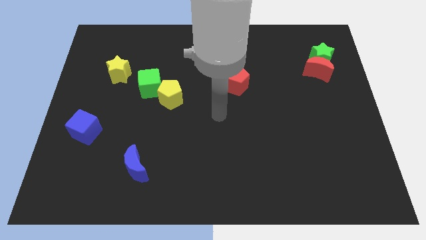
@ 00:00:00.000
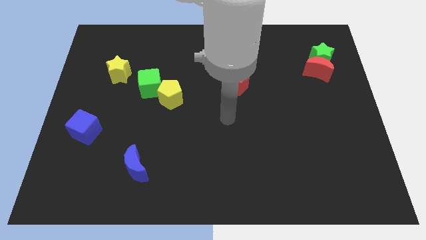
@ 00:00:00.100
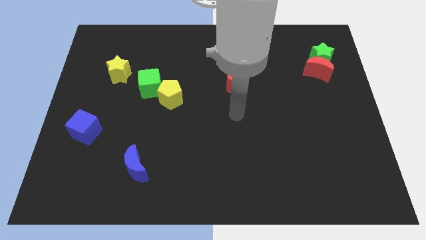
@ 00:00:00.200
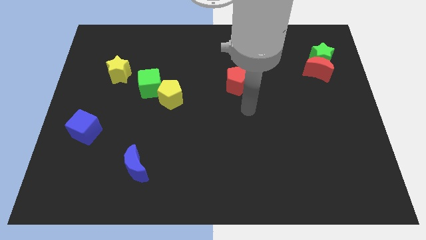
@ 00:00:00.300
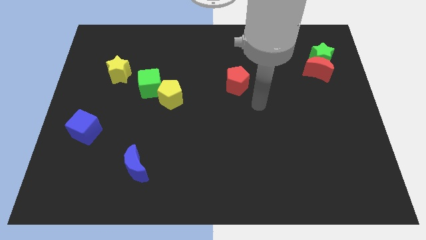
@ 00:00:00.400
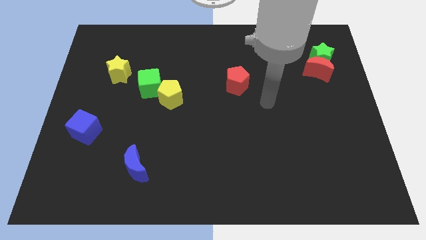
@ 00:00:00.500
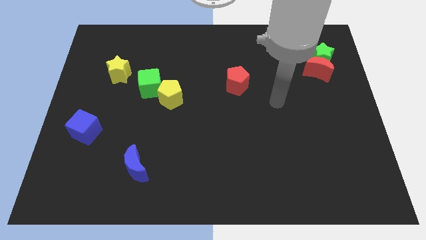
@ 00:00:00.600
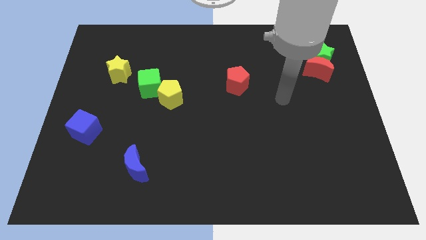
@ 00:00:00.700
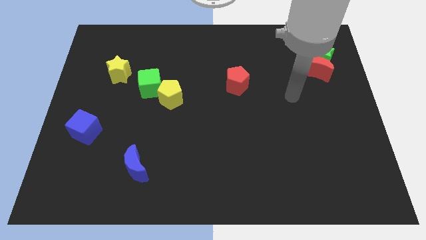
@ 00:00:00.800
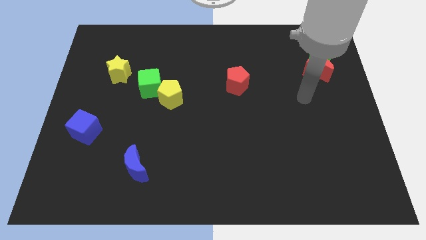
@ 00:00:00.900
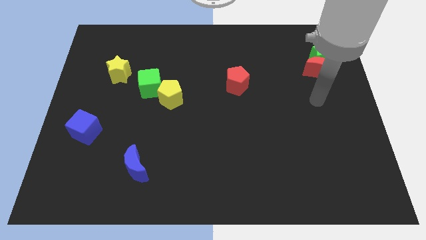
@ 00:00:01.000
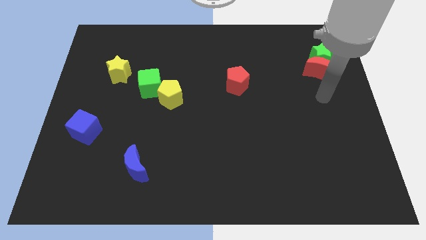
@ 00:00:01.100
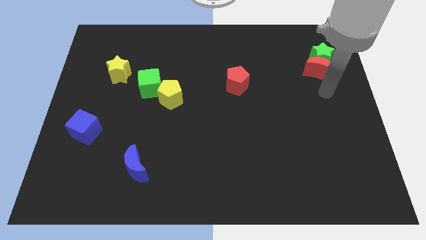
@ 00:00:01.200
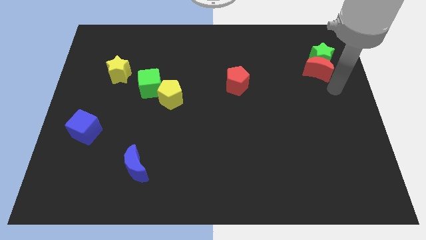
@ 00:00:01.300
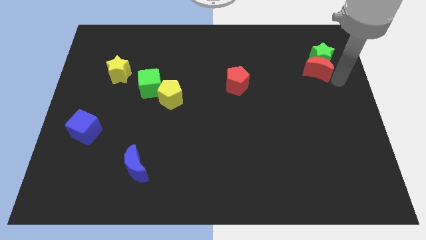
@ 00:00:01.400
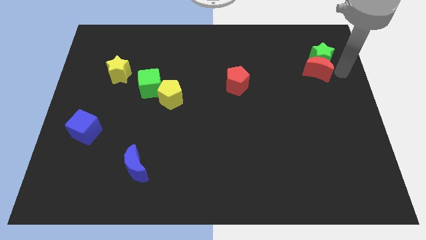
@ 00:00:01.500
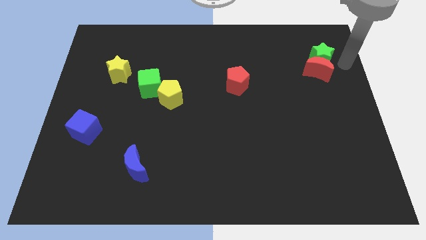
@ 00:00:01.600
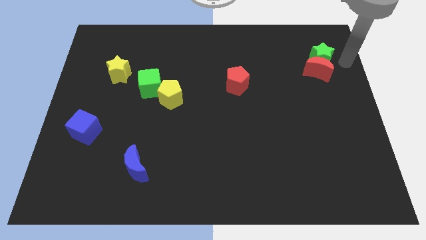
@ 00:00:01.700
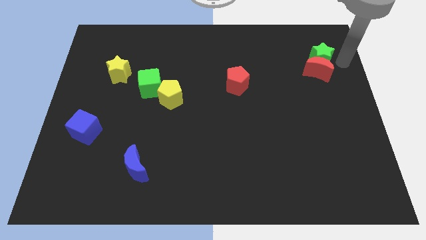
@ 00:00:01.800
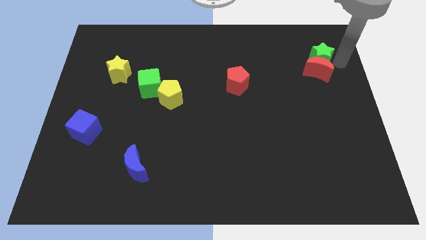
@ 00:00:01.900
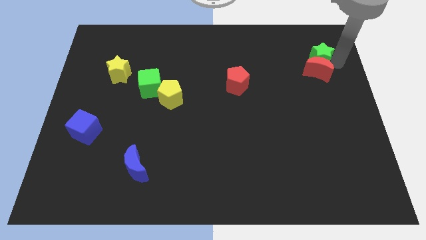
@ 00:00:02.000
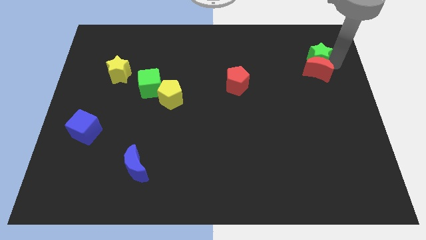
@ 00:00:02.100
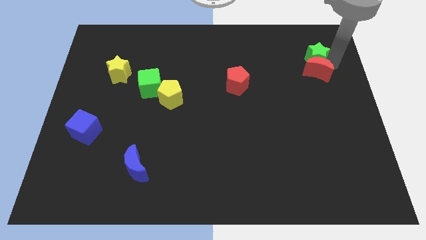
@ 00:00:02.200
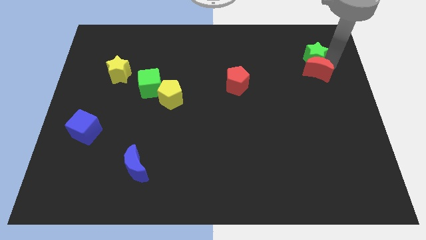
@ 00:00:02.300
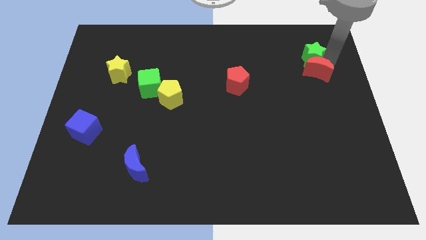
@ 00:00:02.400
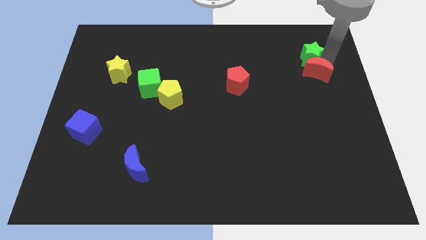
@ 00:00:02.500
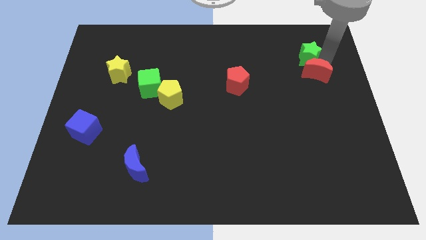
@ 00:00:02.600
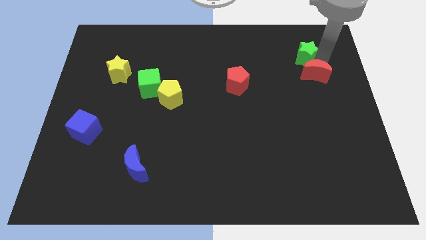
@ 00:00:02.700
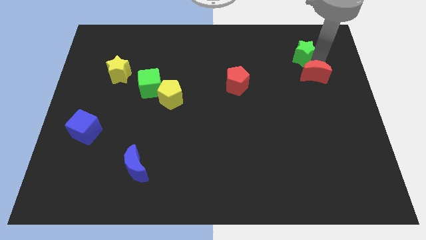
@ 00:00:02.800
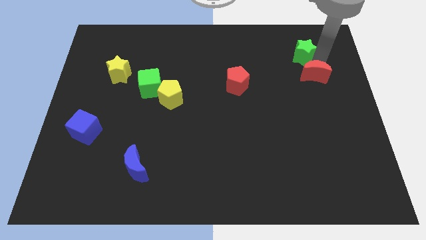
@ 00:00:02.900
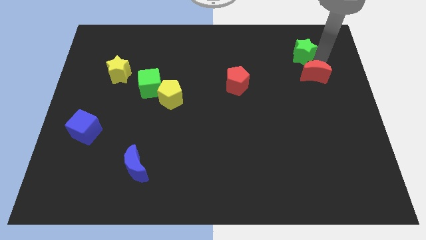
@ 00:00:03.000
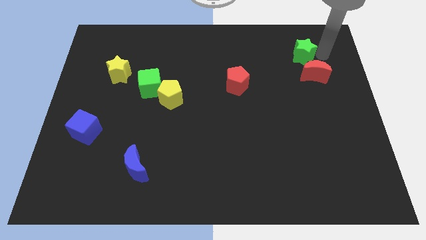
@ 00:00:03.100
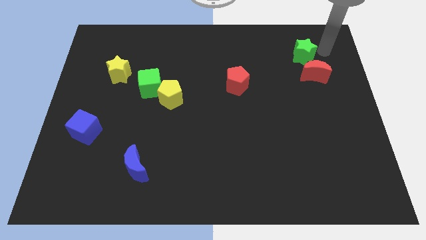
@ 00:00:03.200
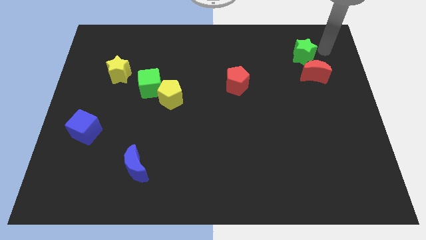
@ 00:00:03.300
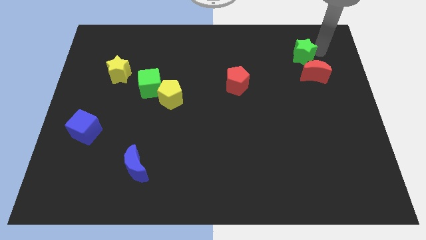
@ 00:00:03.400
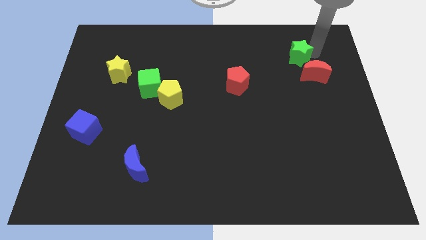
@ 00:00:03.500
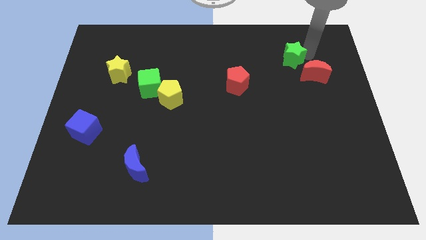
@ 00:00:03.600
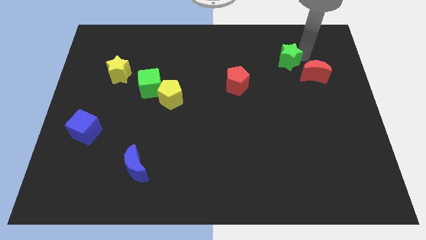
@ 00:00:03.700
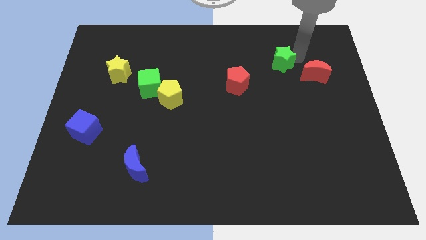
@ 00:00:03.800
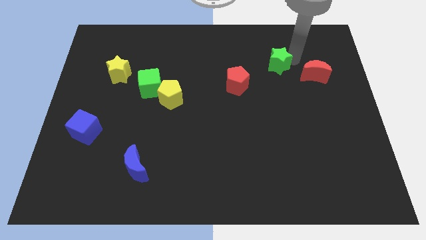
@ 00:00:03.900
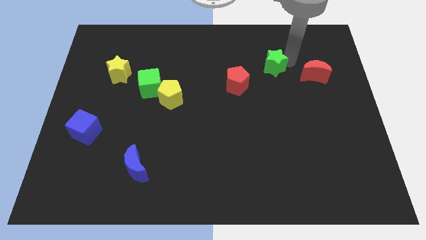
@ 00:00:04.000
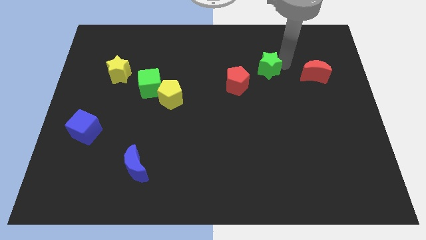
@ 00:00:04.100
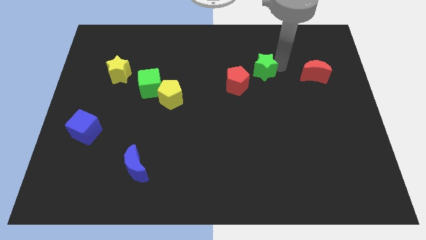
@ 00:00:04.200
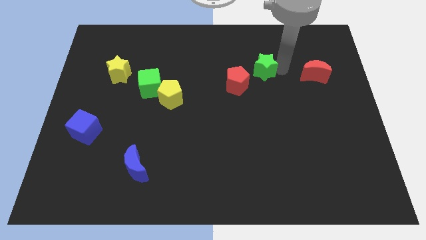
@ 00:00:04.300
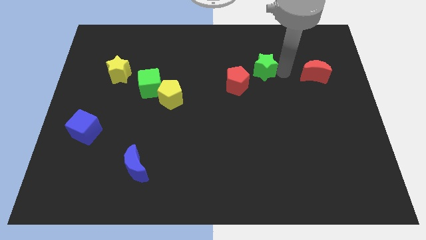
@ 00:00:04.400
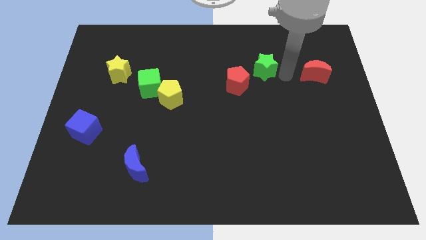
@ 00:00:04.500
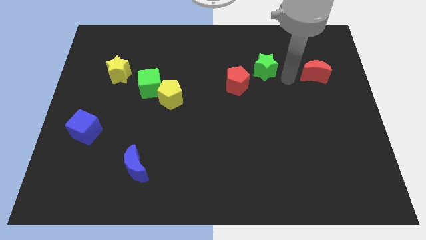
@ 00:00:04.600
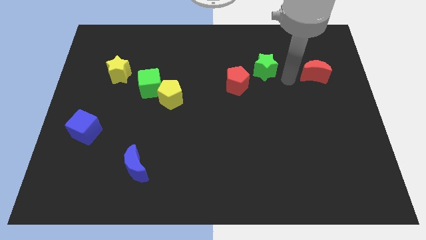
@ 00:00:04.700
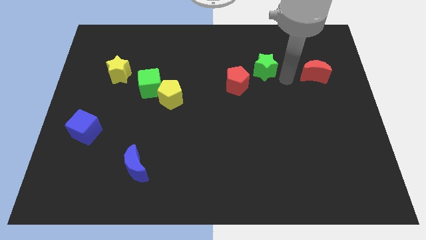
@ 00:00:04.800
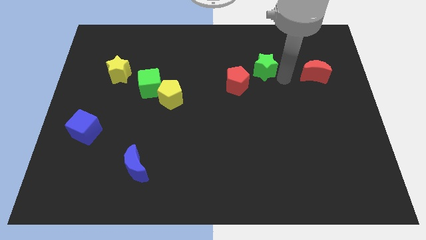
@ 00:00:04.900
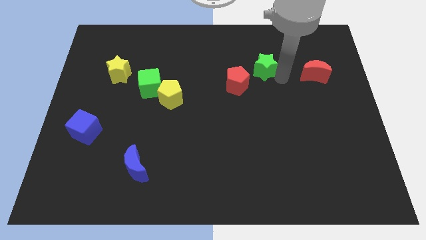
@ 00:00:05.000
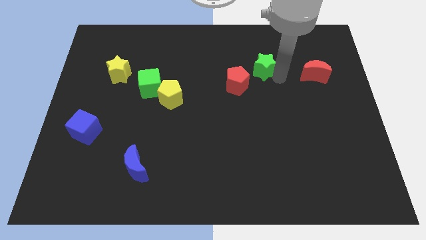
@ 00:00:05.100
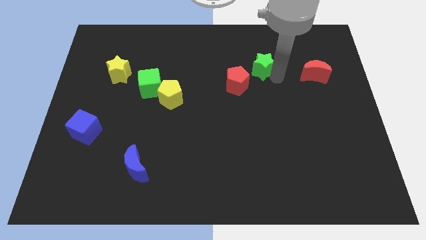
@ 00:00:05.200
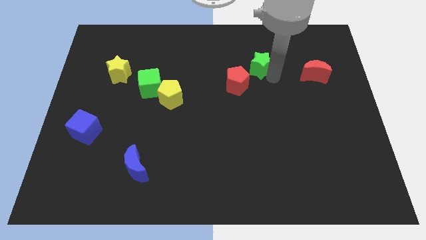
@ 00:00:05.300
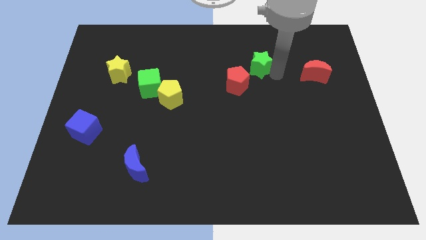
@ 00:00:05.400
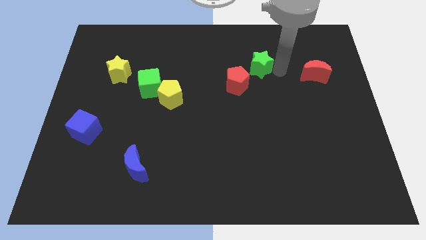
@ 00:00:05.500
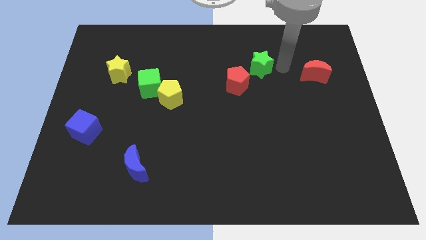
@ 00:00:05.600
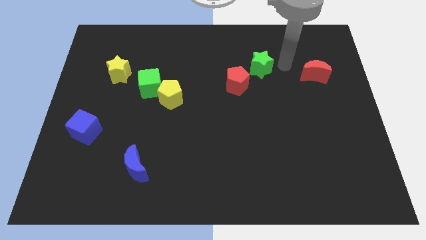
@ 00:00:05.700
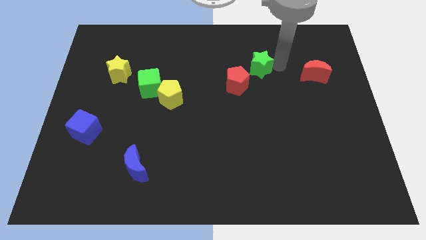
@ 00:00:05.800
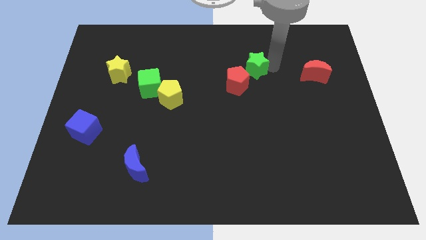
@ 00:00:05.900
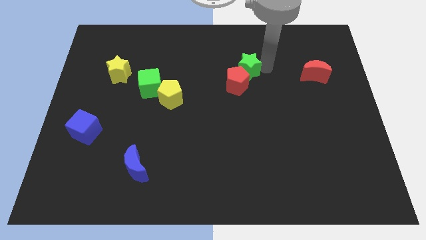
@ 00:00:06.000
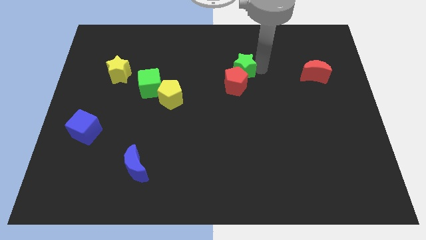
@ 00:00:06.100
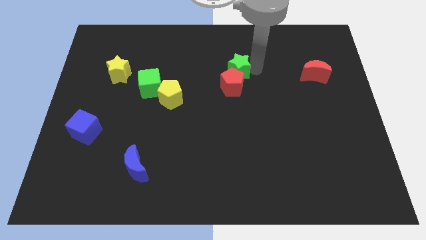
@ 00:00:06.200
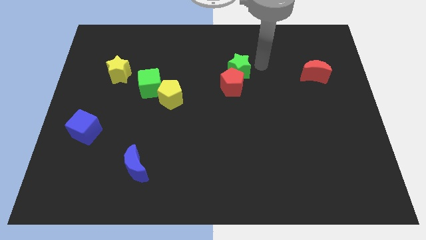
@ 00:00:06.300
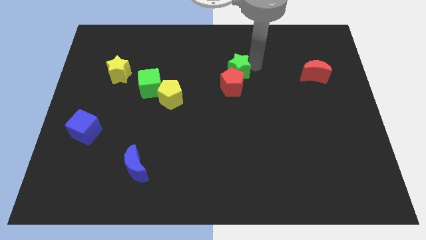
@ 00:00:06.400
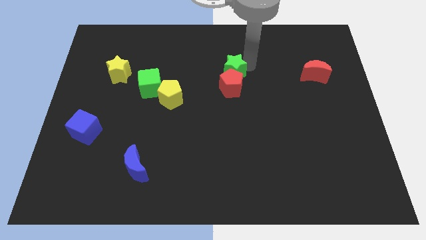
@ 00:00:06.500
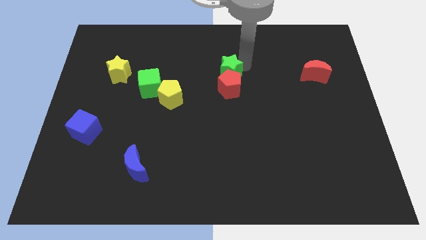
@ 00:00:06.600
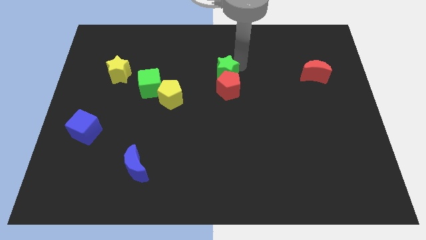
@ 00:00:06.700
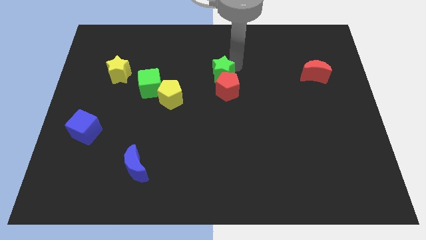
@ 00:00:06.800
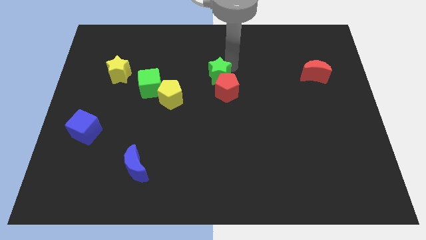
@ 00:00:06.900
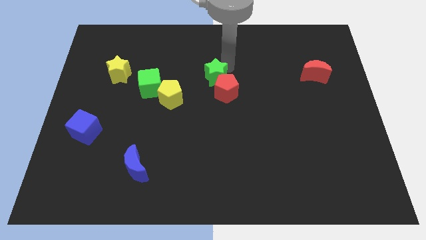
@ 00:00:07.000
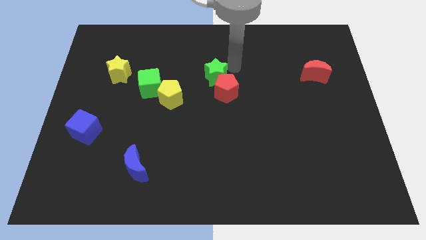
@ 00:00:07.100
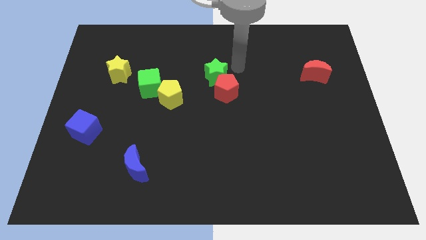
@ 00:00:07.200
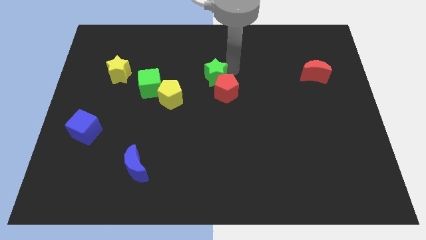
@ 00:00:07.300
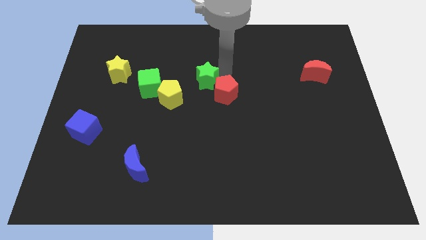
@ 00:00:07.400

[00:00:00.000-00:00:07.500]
put the green star just left of the red pentagon

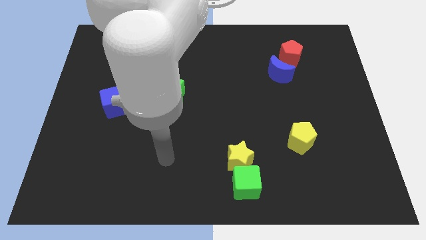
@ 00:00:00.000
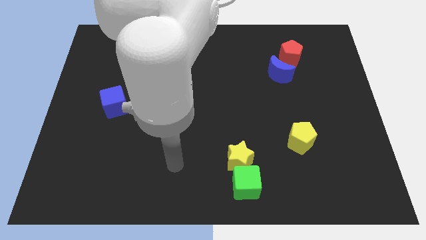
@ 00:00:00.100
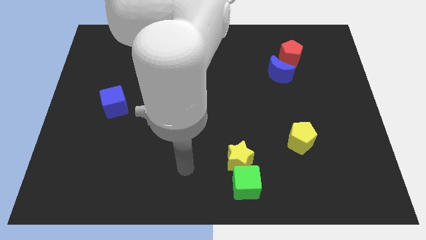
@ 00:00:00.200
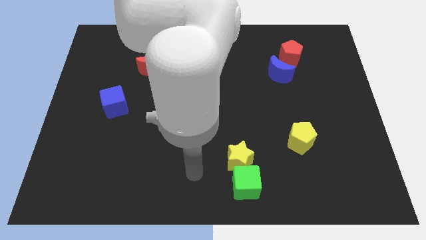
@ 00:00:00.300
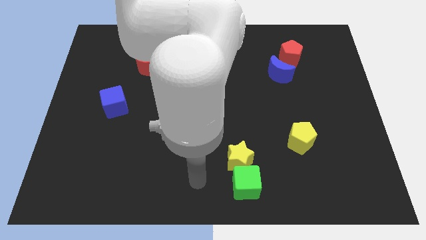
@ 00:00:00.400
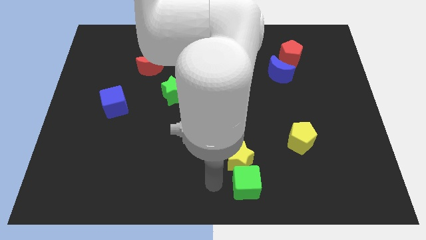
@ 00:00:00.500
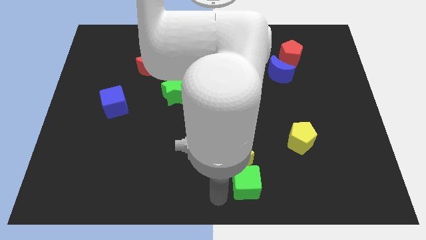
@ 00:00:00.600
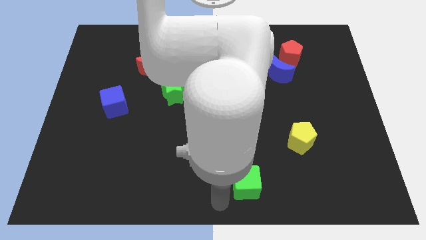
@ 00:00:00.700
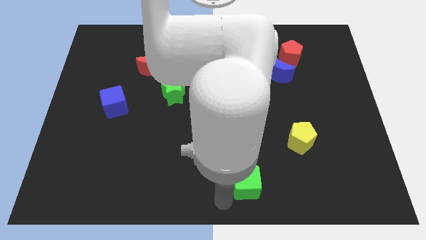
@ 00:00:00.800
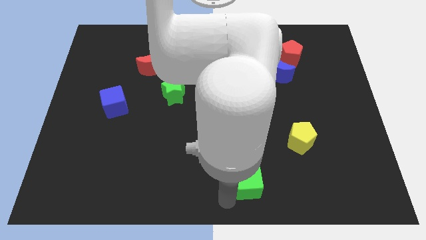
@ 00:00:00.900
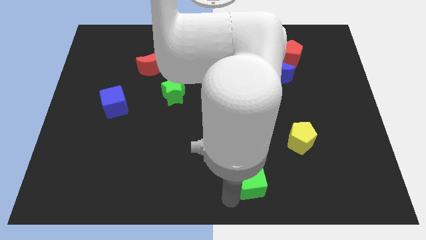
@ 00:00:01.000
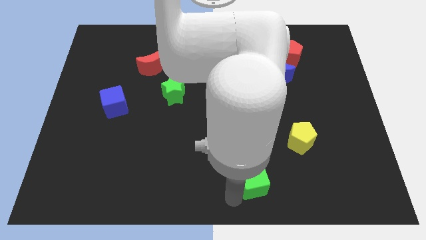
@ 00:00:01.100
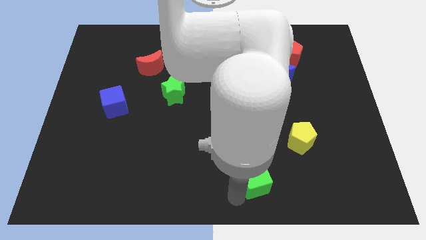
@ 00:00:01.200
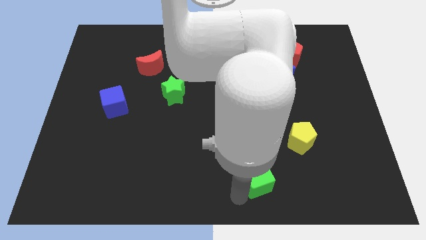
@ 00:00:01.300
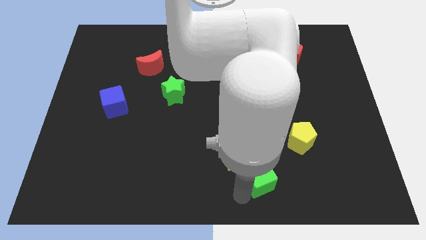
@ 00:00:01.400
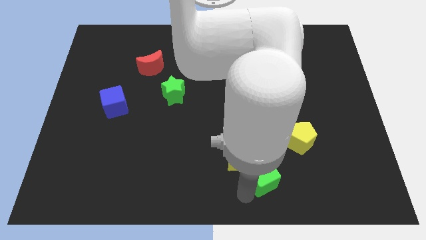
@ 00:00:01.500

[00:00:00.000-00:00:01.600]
slide the green cube to the bottom left side of the yellow pentagon
